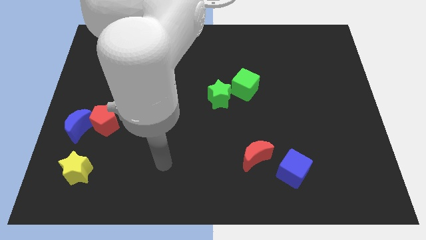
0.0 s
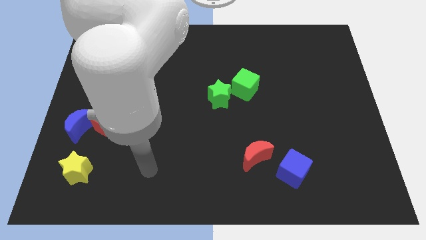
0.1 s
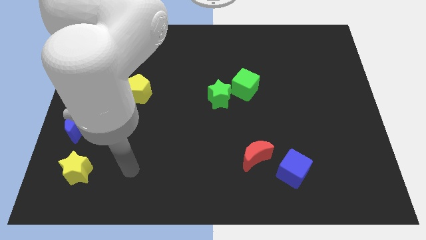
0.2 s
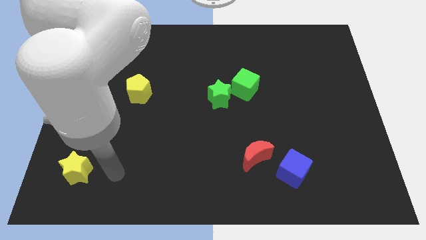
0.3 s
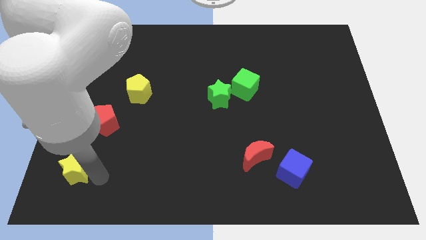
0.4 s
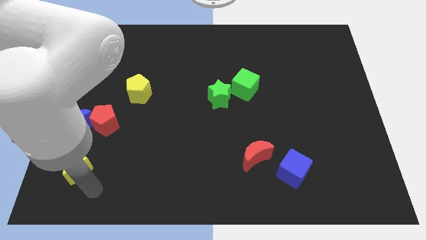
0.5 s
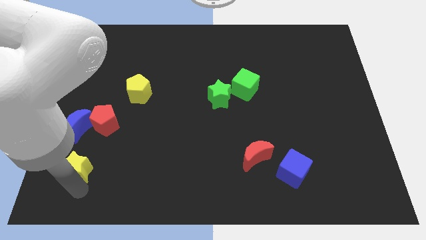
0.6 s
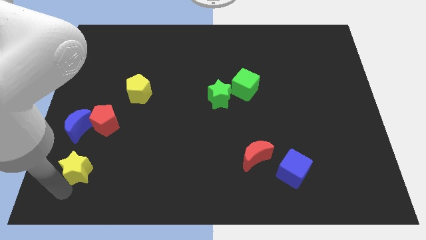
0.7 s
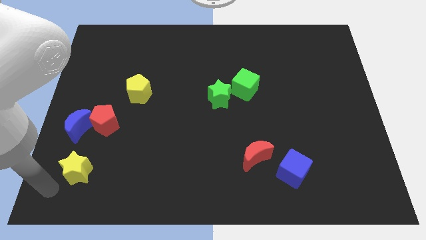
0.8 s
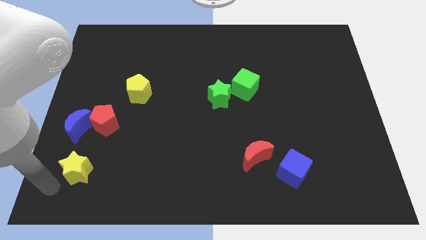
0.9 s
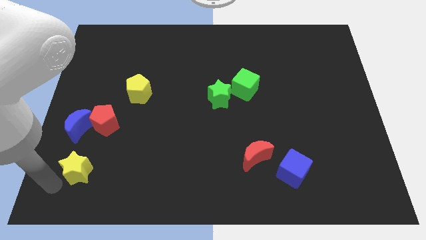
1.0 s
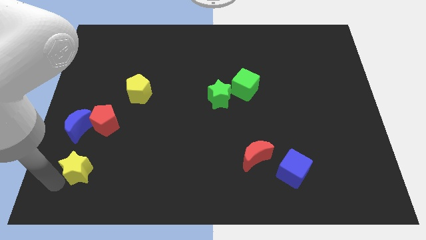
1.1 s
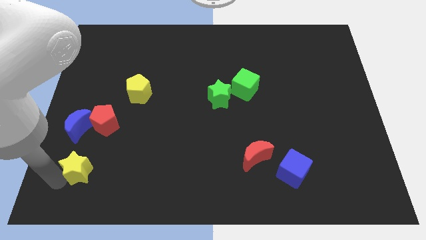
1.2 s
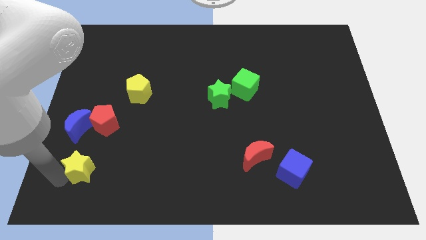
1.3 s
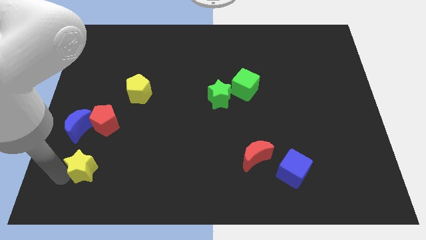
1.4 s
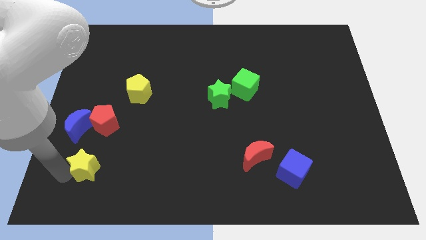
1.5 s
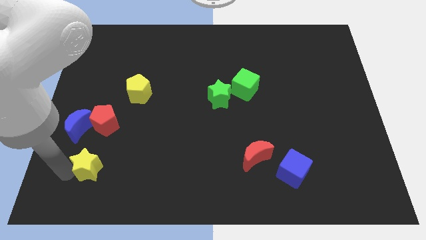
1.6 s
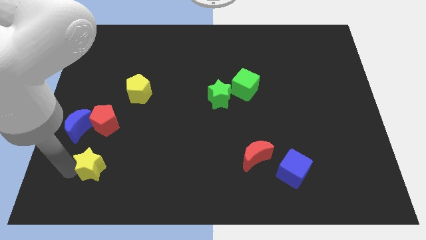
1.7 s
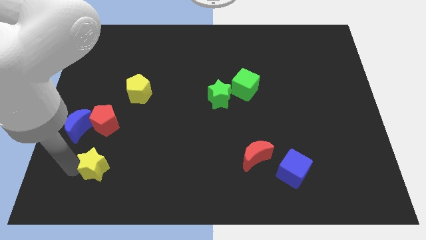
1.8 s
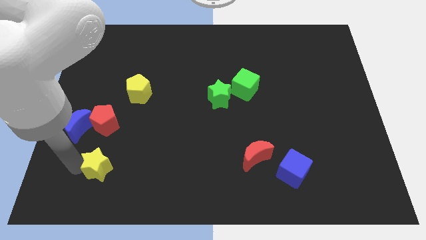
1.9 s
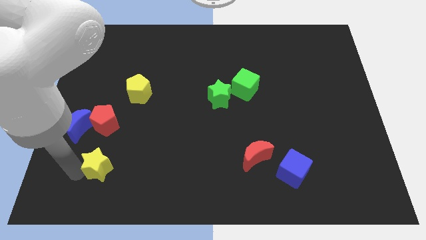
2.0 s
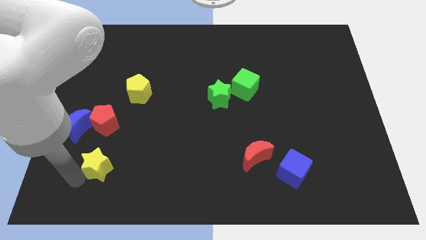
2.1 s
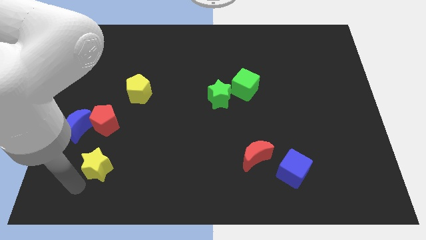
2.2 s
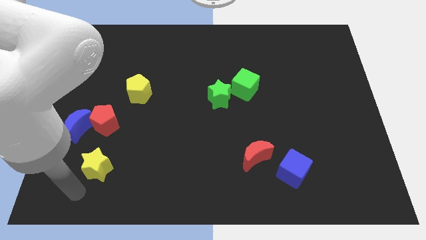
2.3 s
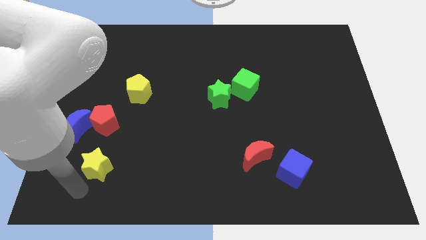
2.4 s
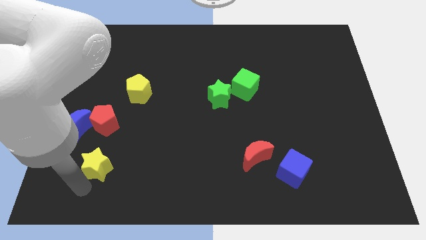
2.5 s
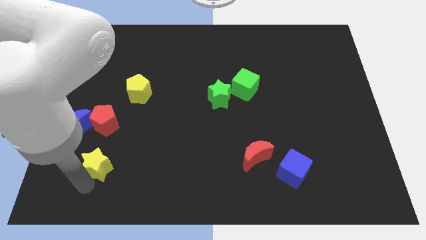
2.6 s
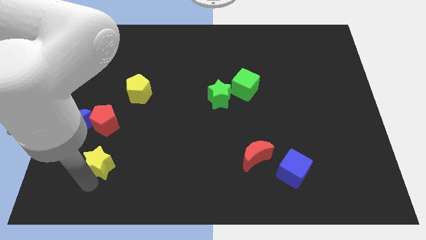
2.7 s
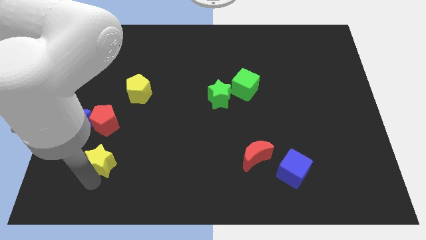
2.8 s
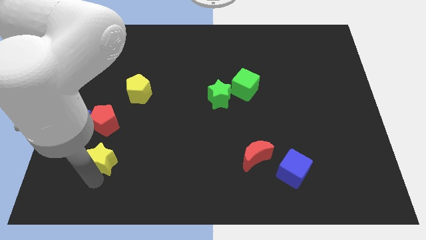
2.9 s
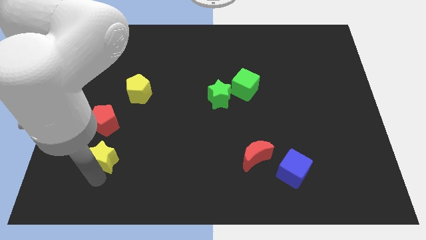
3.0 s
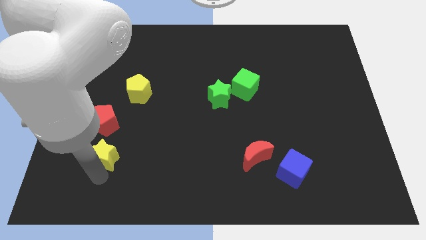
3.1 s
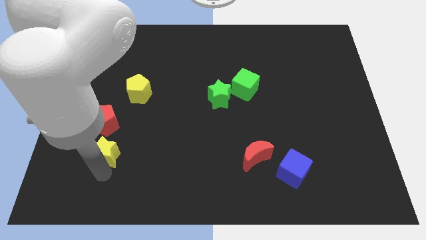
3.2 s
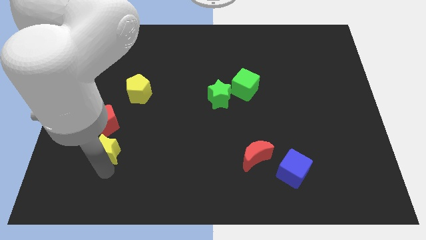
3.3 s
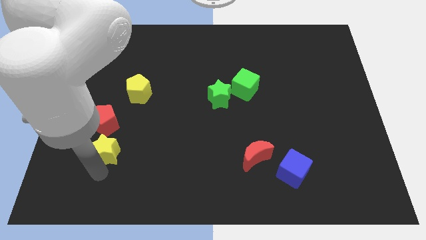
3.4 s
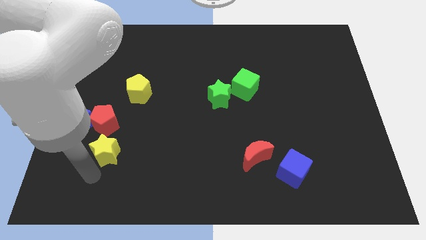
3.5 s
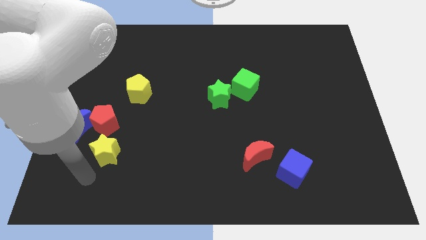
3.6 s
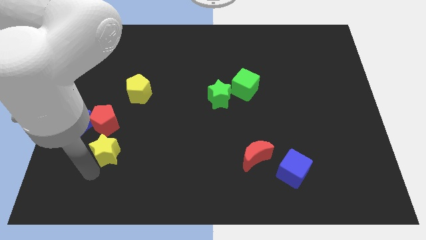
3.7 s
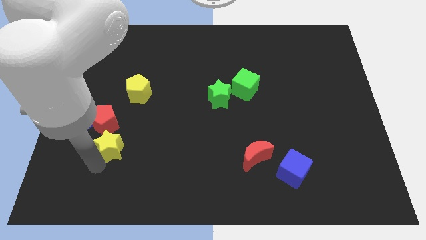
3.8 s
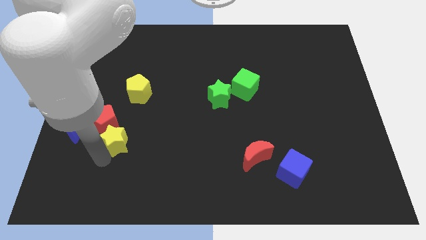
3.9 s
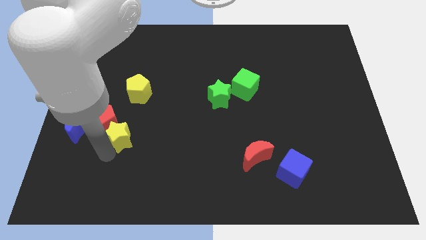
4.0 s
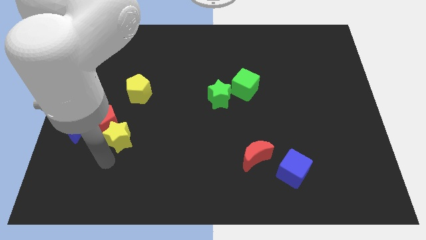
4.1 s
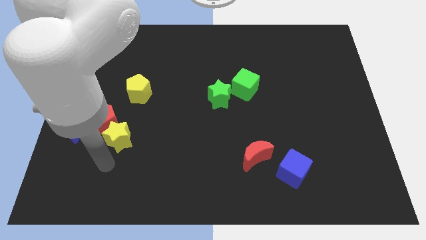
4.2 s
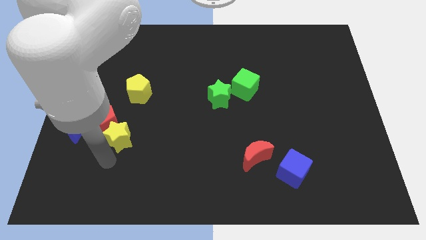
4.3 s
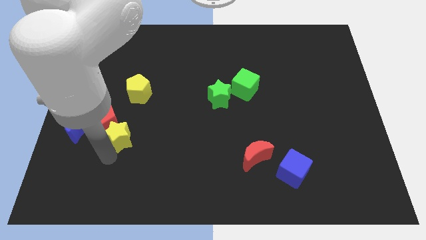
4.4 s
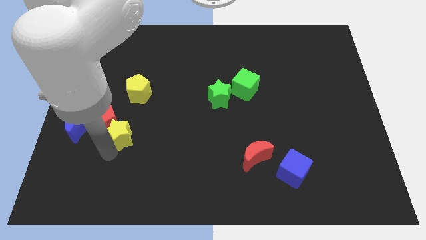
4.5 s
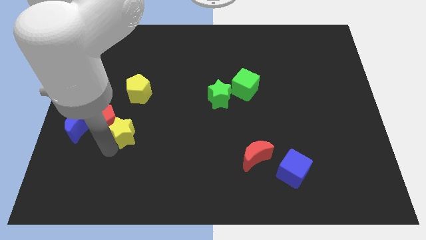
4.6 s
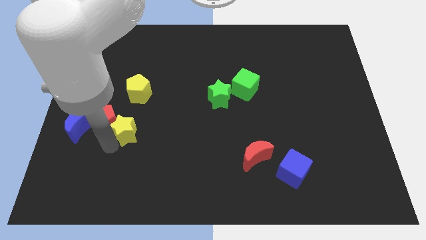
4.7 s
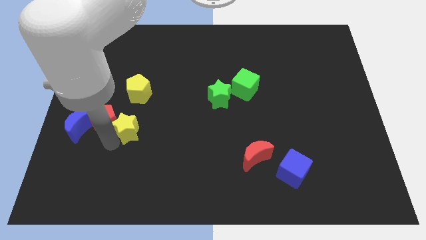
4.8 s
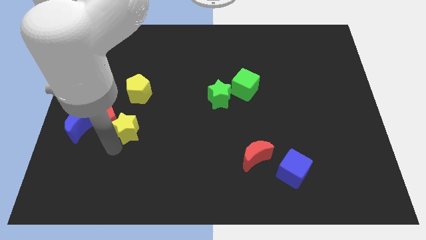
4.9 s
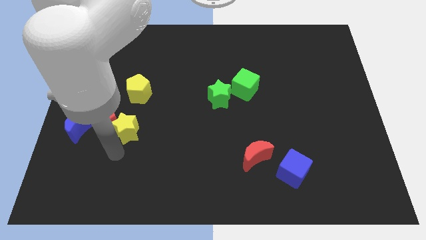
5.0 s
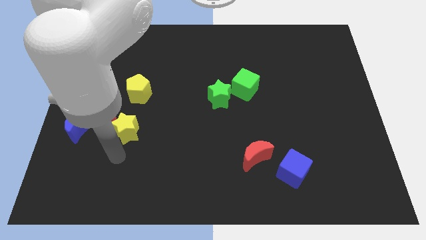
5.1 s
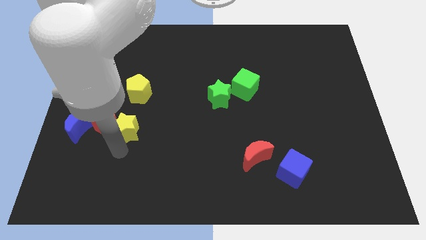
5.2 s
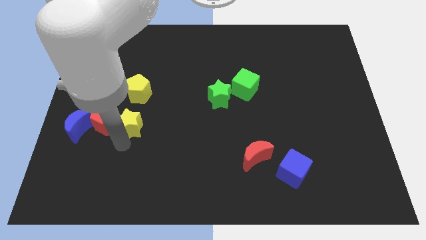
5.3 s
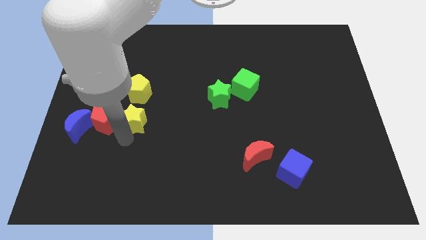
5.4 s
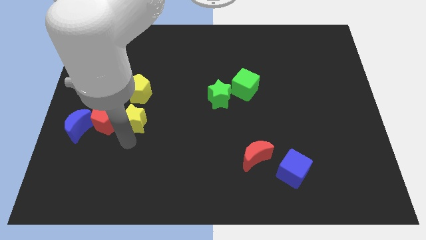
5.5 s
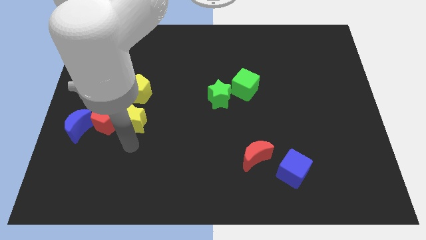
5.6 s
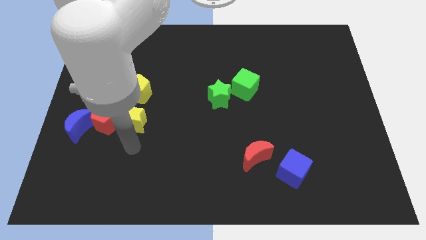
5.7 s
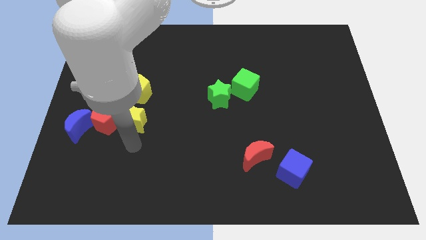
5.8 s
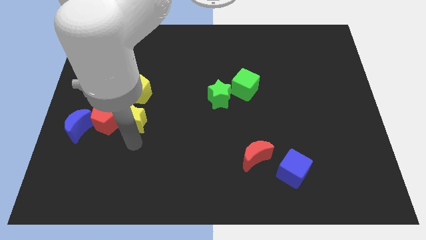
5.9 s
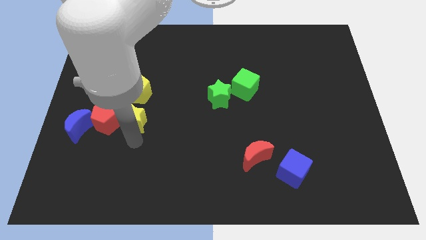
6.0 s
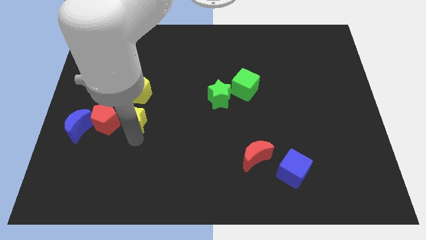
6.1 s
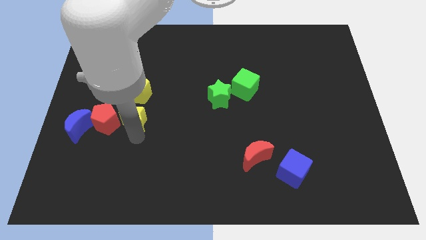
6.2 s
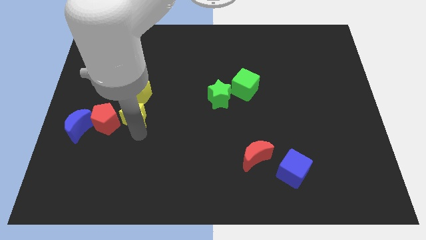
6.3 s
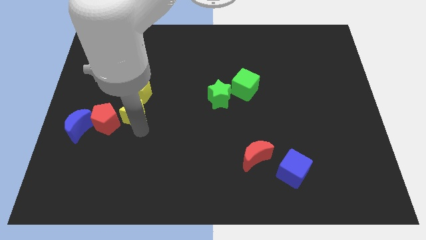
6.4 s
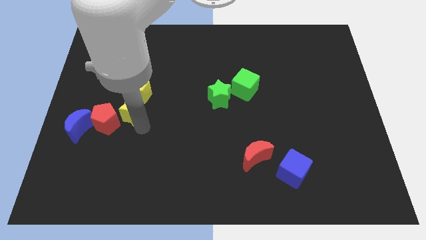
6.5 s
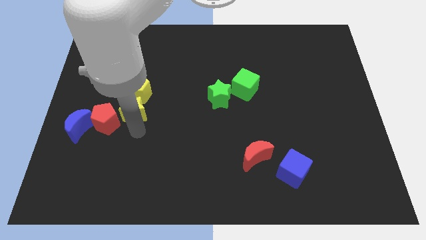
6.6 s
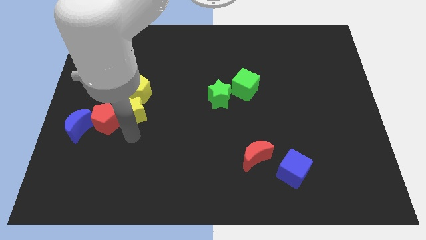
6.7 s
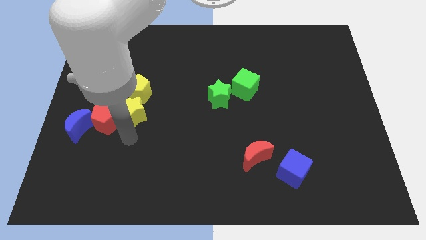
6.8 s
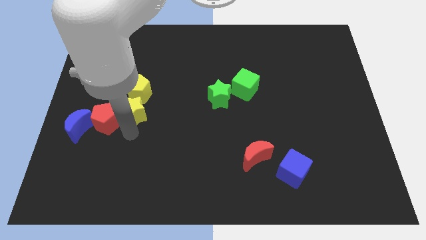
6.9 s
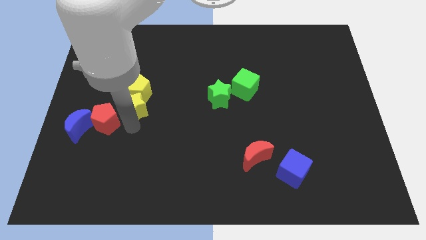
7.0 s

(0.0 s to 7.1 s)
push the yellow star next to the yellow pentagon
